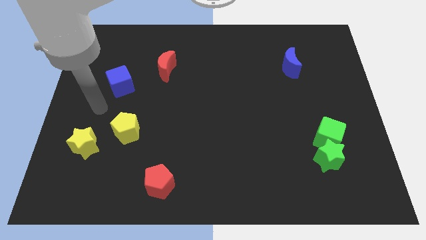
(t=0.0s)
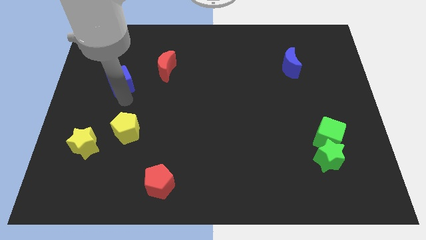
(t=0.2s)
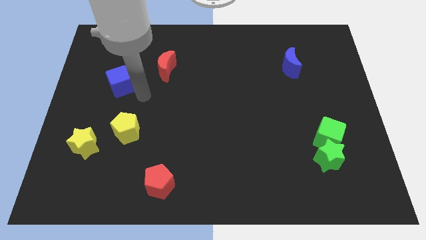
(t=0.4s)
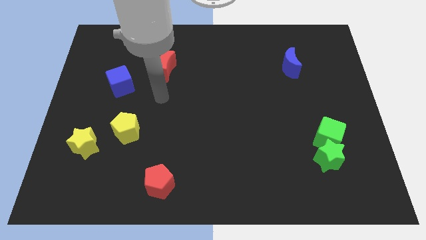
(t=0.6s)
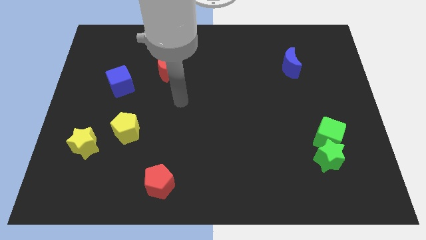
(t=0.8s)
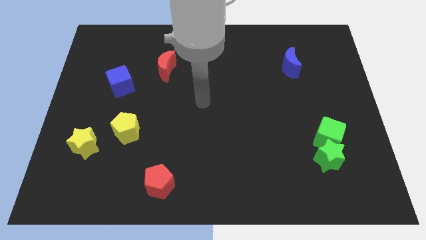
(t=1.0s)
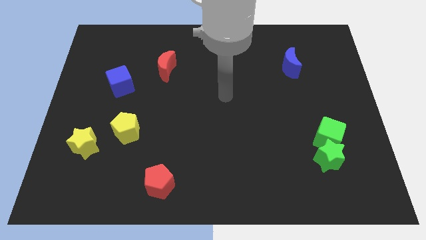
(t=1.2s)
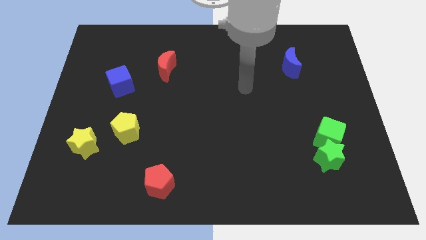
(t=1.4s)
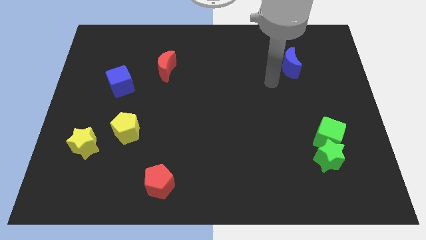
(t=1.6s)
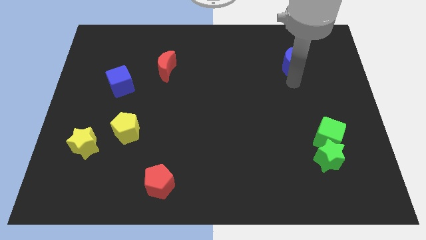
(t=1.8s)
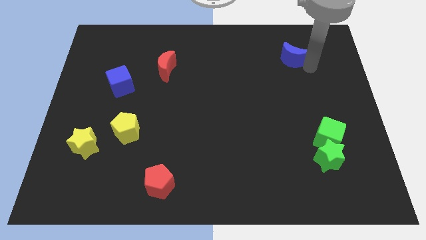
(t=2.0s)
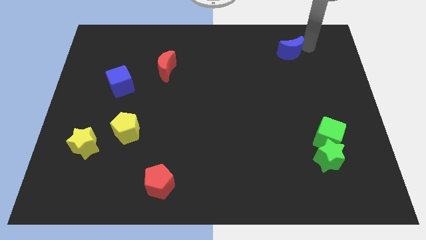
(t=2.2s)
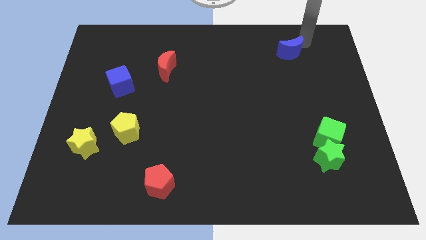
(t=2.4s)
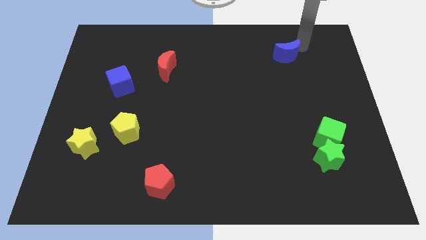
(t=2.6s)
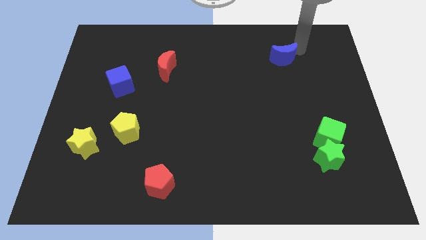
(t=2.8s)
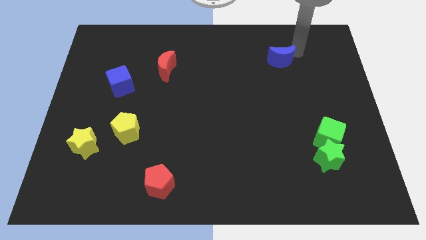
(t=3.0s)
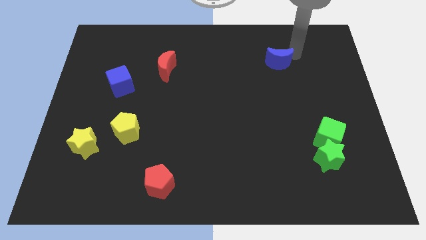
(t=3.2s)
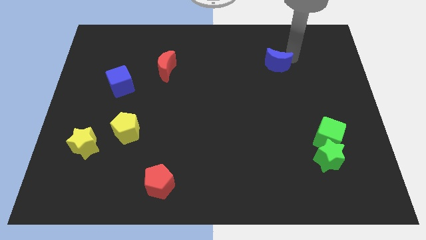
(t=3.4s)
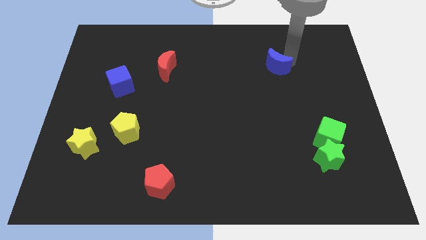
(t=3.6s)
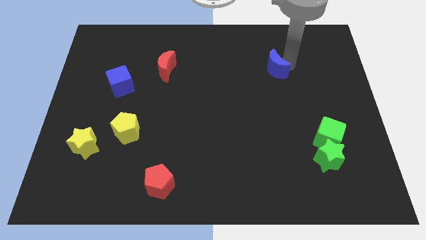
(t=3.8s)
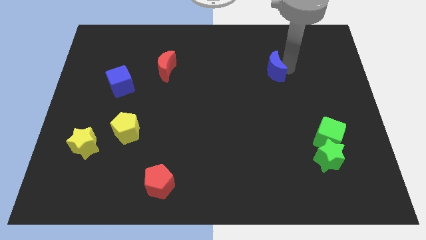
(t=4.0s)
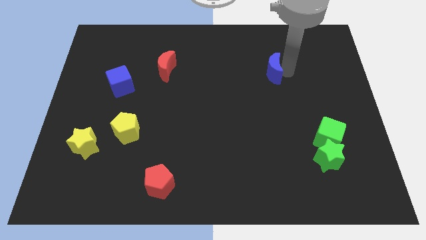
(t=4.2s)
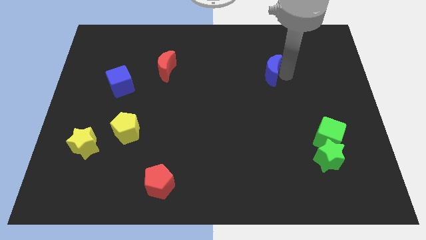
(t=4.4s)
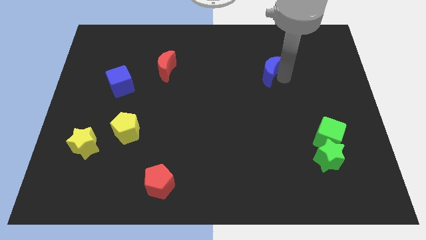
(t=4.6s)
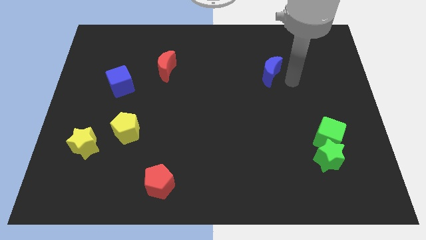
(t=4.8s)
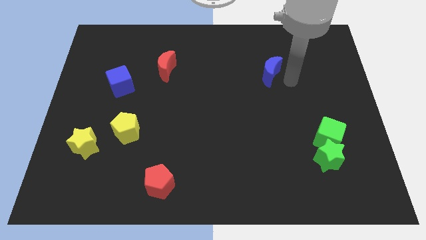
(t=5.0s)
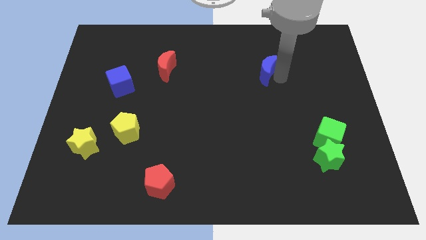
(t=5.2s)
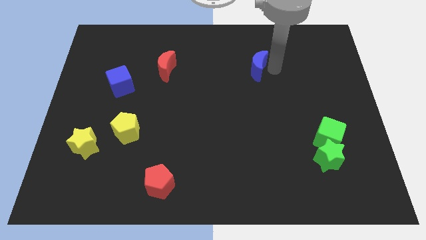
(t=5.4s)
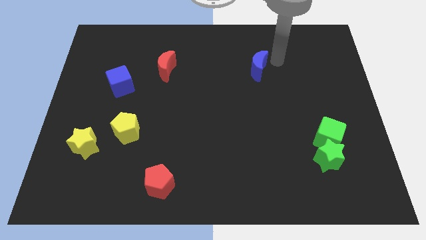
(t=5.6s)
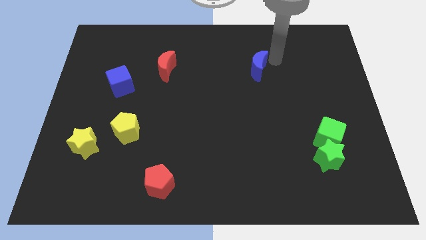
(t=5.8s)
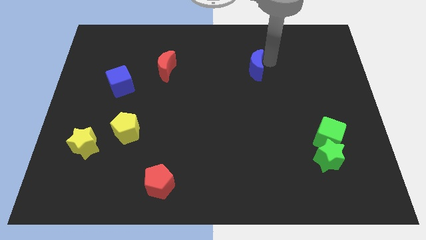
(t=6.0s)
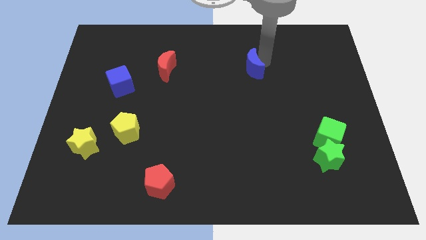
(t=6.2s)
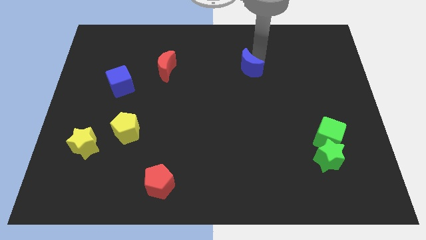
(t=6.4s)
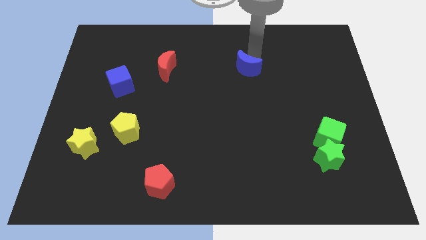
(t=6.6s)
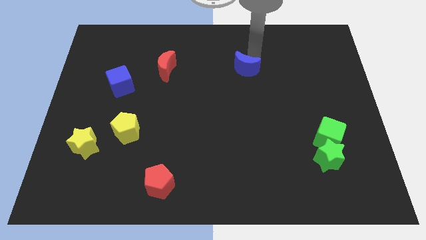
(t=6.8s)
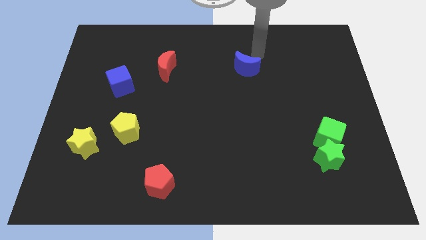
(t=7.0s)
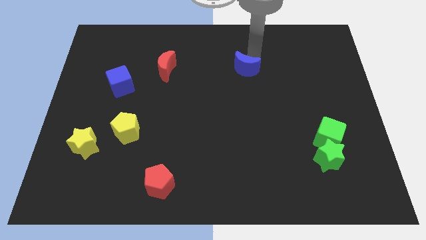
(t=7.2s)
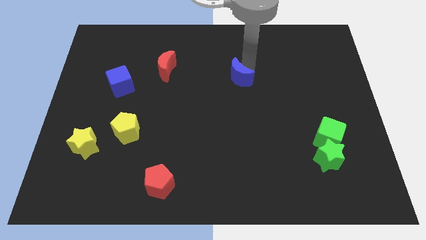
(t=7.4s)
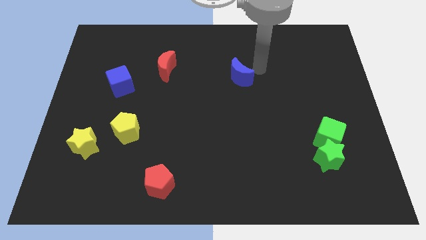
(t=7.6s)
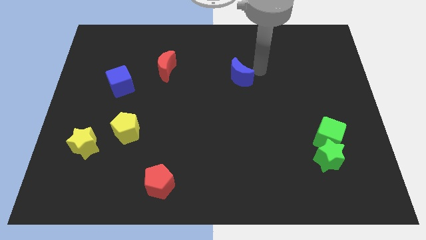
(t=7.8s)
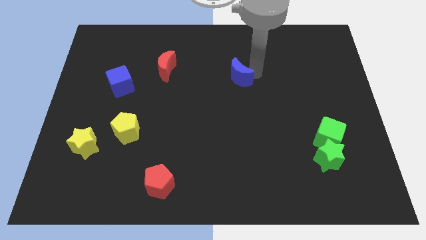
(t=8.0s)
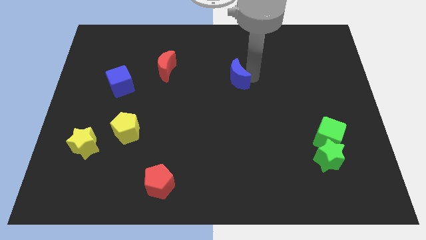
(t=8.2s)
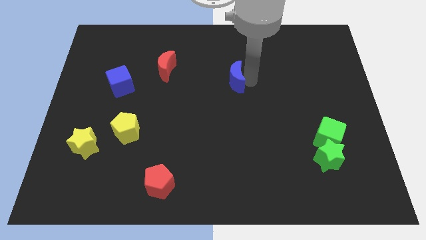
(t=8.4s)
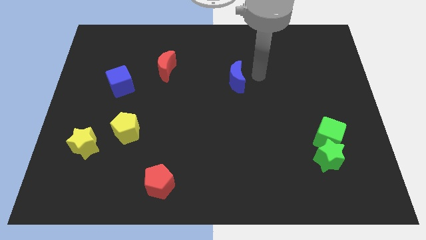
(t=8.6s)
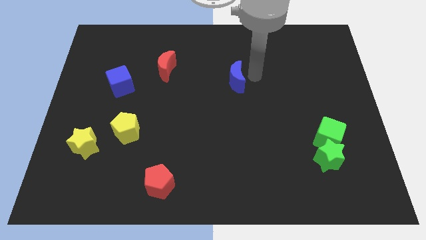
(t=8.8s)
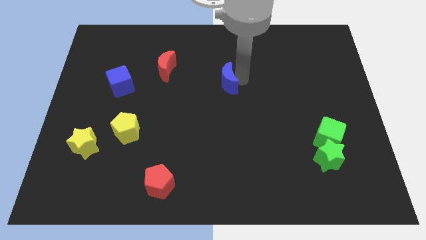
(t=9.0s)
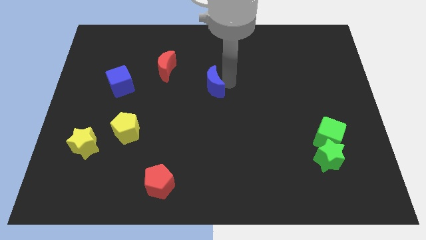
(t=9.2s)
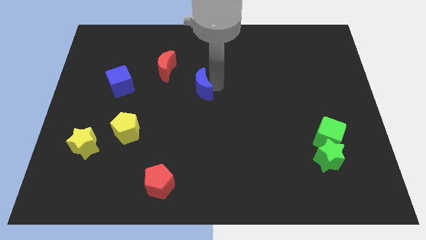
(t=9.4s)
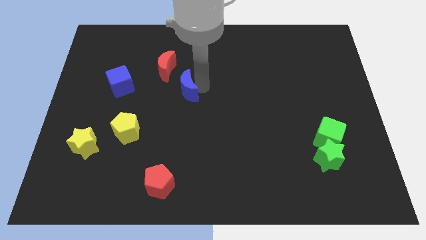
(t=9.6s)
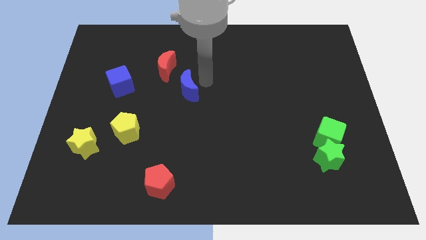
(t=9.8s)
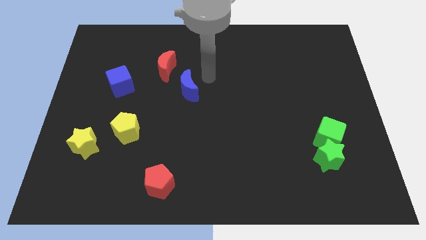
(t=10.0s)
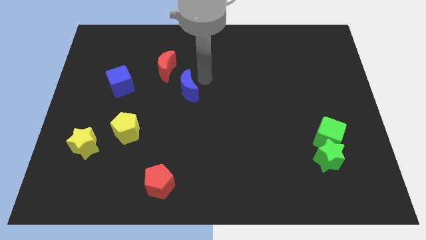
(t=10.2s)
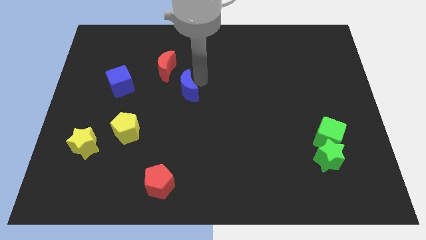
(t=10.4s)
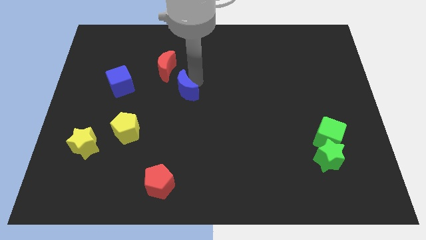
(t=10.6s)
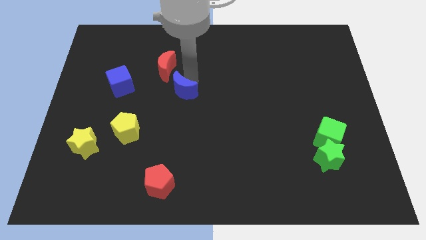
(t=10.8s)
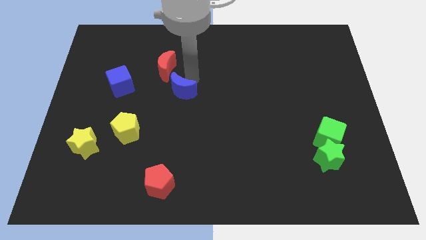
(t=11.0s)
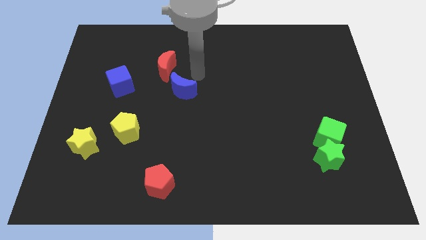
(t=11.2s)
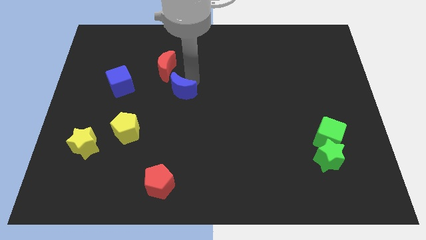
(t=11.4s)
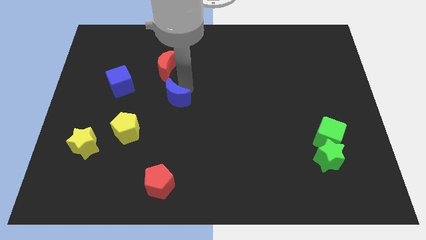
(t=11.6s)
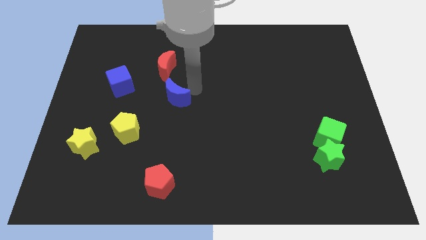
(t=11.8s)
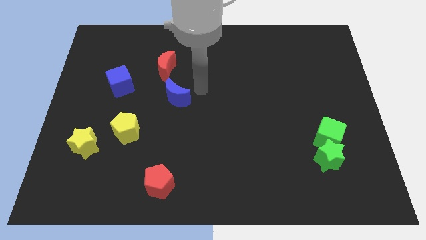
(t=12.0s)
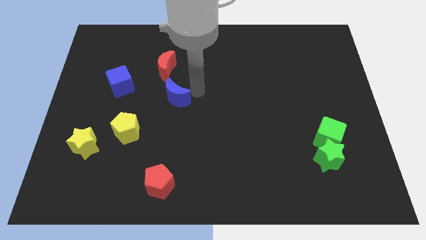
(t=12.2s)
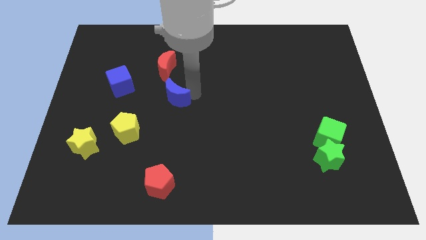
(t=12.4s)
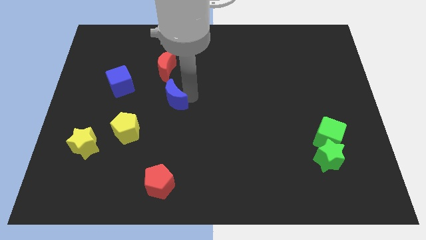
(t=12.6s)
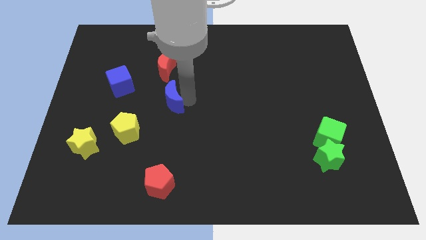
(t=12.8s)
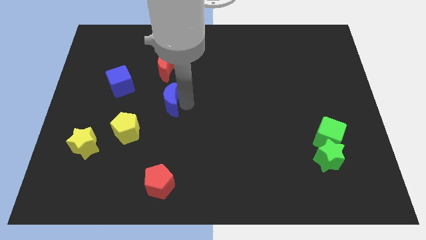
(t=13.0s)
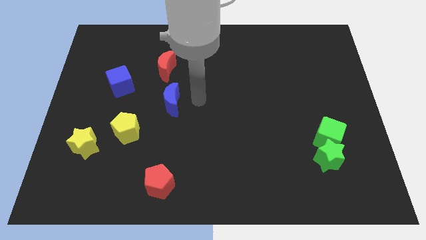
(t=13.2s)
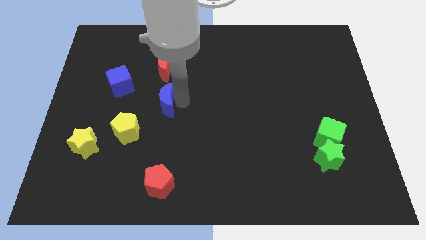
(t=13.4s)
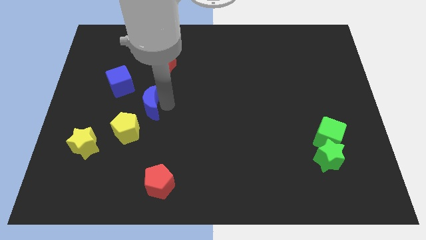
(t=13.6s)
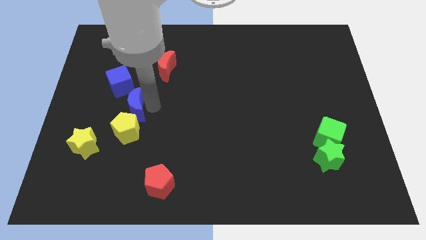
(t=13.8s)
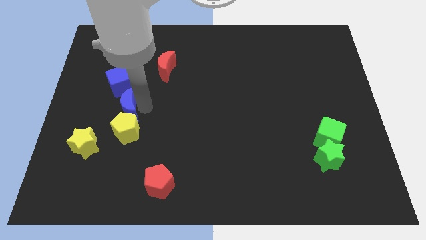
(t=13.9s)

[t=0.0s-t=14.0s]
move the blue moon diagonally up and to the left of the yellow pentagon
